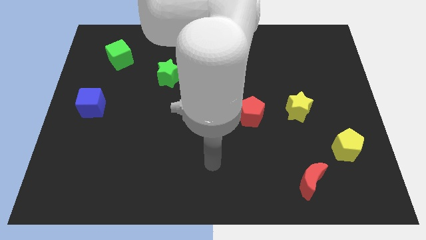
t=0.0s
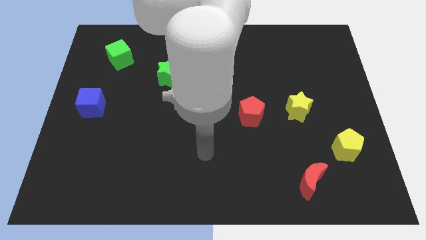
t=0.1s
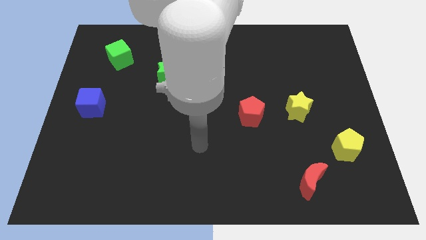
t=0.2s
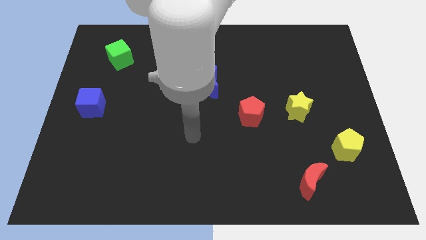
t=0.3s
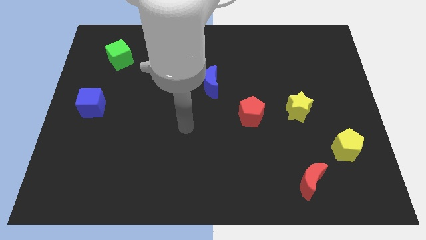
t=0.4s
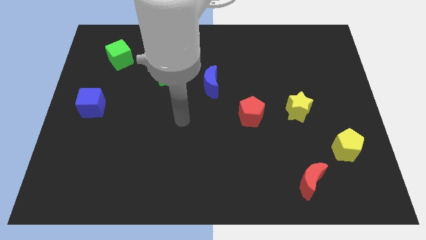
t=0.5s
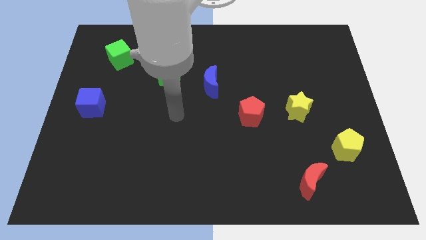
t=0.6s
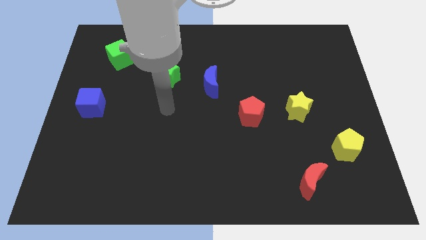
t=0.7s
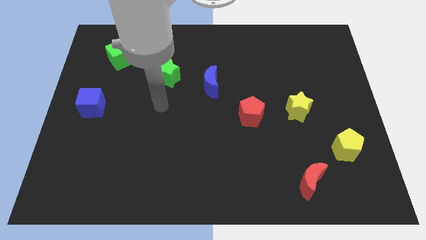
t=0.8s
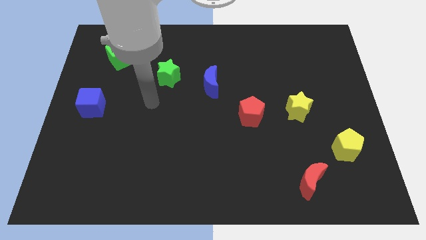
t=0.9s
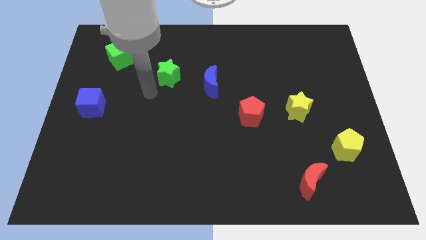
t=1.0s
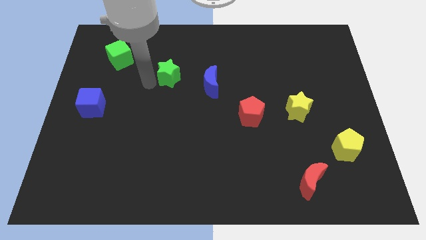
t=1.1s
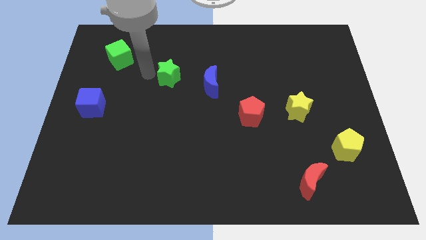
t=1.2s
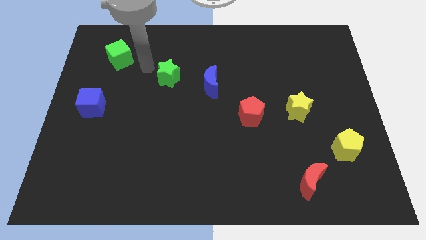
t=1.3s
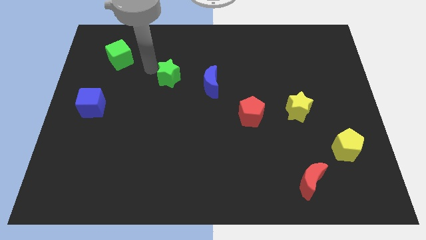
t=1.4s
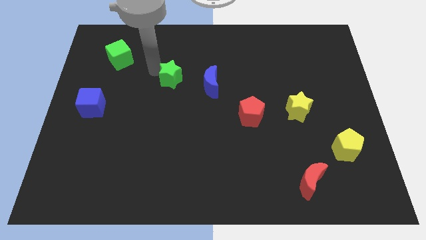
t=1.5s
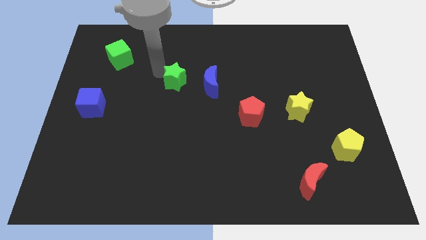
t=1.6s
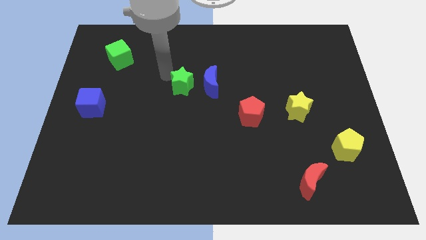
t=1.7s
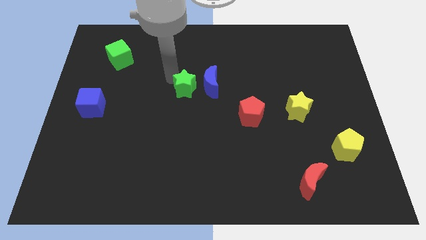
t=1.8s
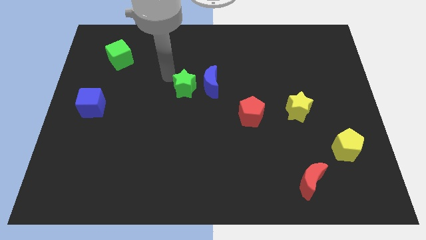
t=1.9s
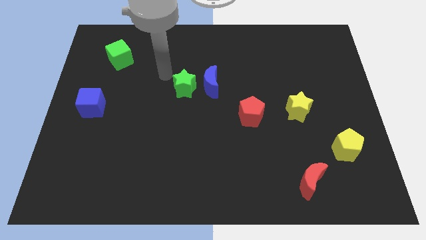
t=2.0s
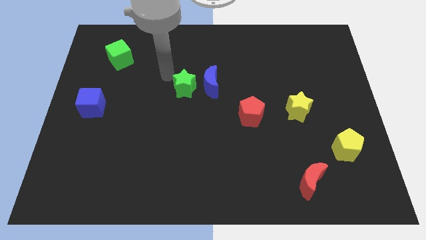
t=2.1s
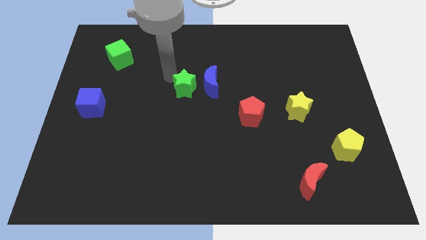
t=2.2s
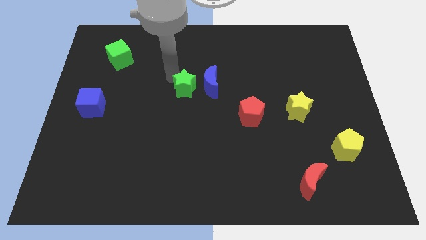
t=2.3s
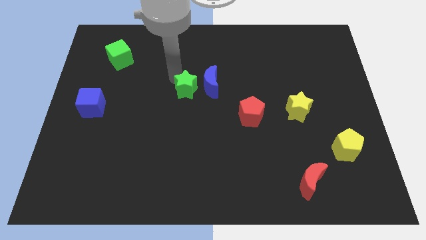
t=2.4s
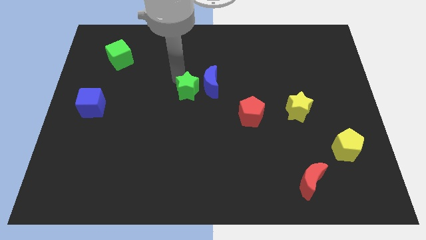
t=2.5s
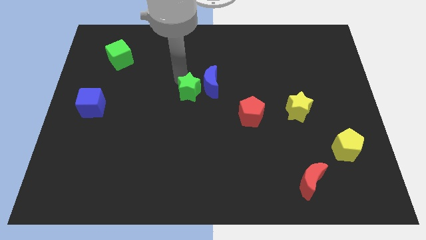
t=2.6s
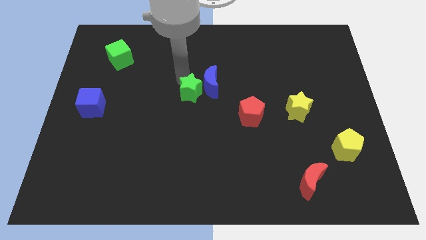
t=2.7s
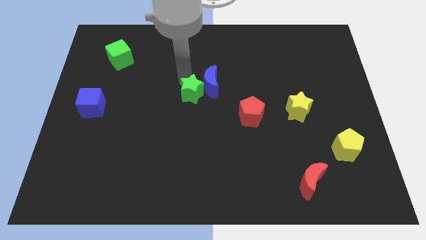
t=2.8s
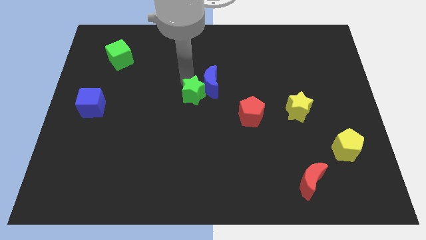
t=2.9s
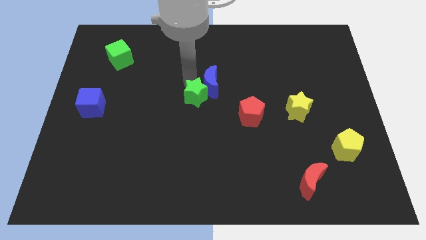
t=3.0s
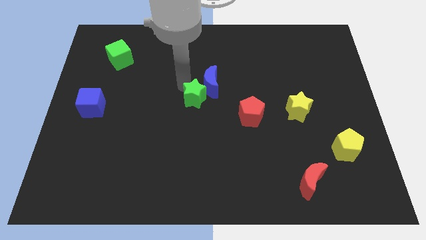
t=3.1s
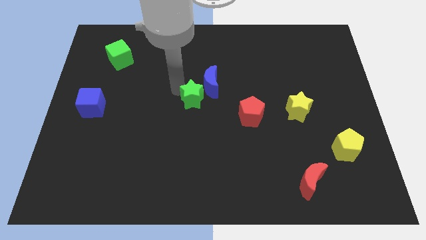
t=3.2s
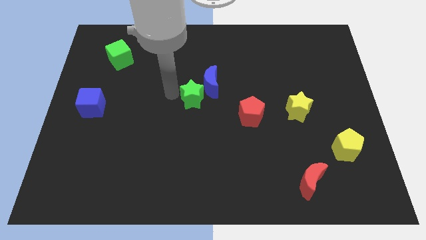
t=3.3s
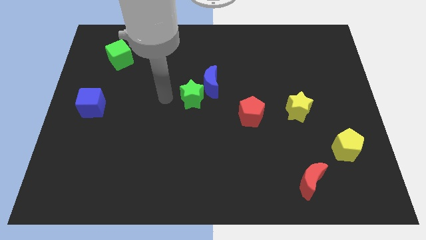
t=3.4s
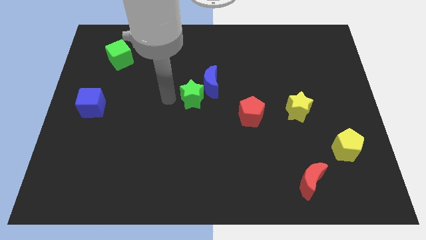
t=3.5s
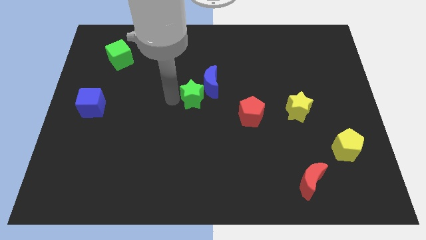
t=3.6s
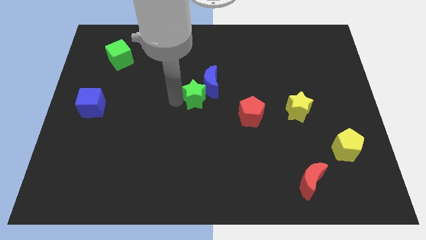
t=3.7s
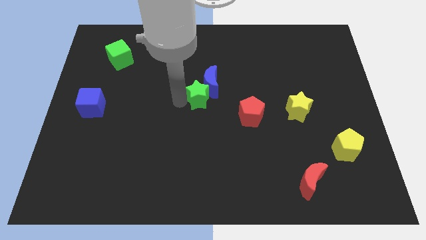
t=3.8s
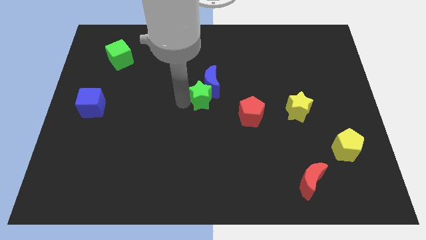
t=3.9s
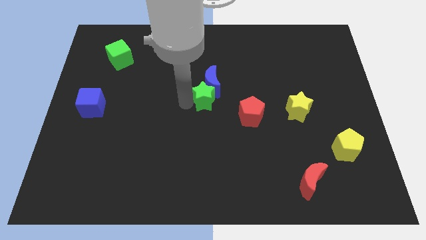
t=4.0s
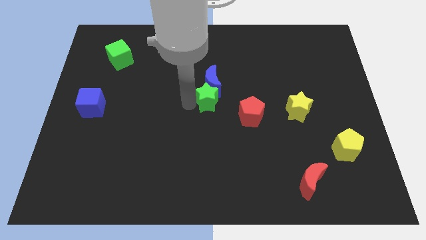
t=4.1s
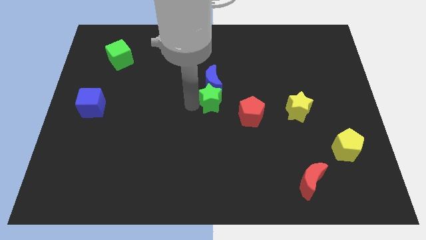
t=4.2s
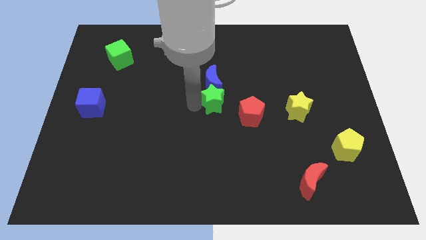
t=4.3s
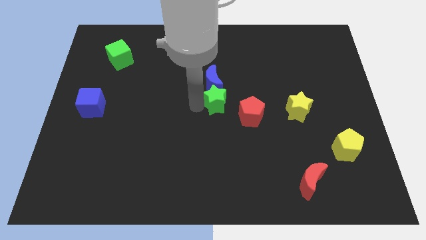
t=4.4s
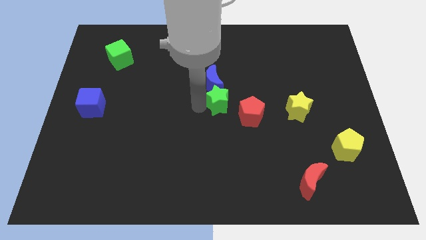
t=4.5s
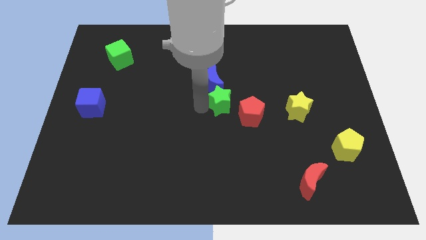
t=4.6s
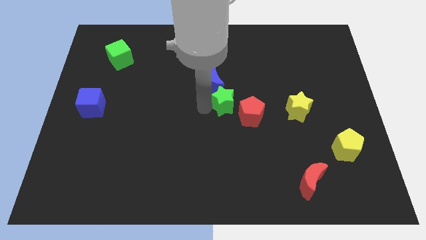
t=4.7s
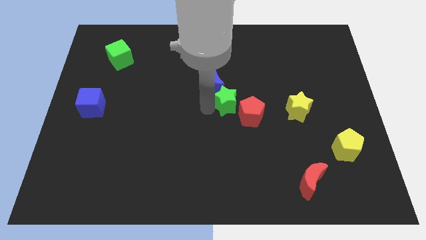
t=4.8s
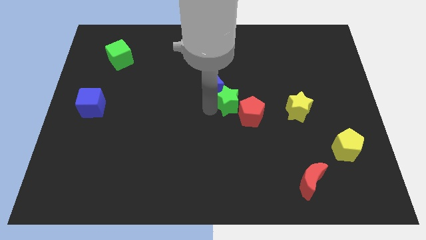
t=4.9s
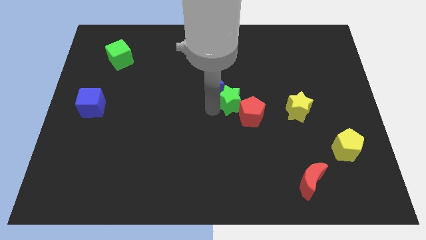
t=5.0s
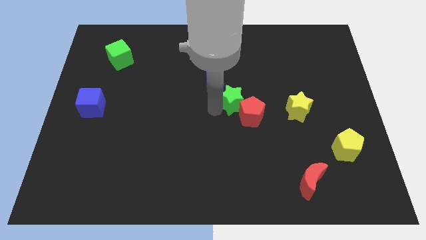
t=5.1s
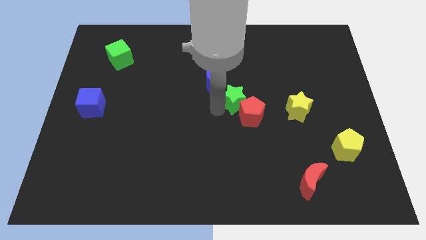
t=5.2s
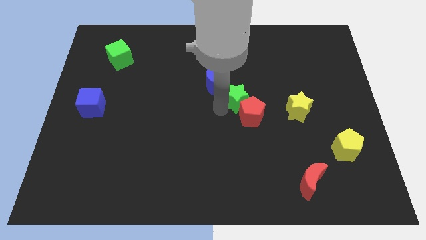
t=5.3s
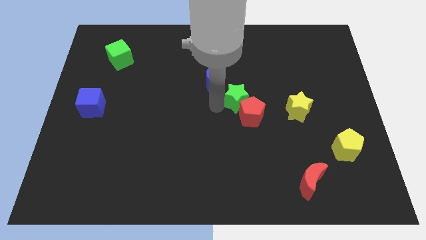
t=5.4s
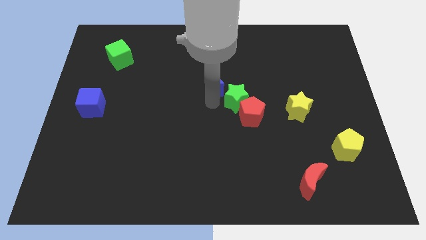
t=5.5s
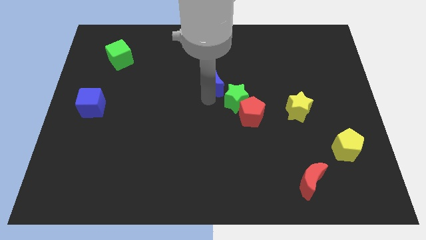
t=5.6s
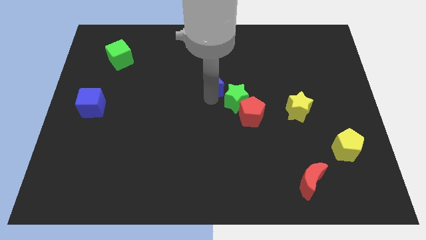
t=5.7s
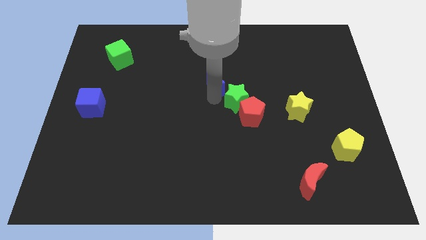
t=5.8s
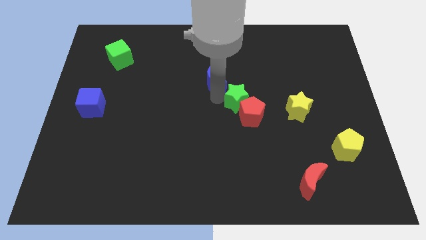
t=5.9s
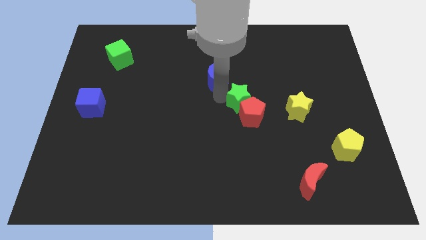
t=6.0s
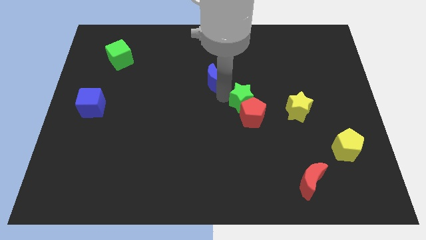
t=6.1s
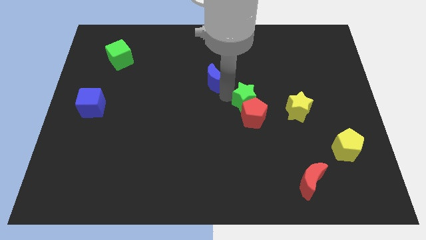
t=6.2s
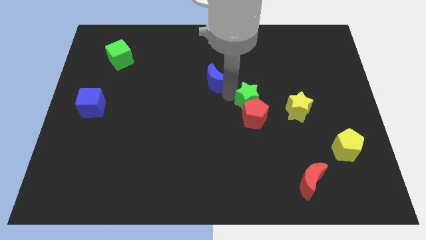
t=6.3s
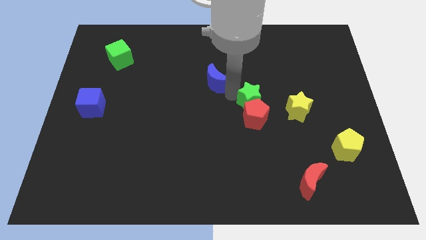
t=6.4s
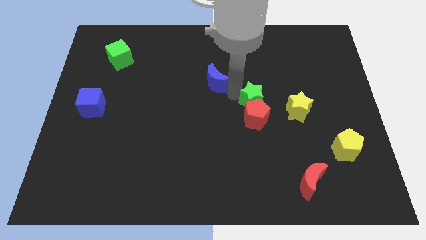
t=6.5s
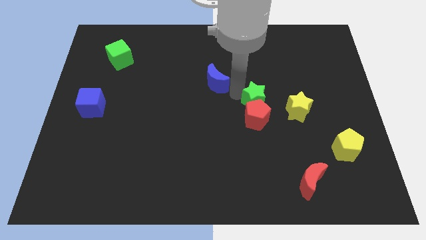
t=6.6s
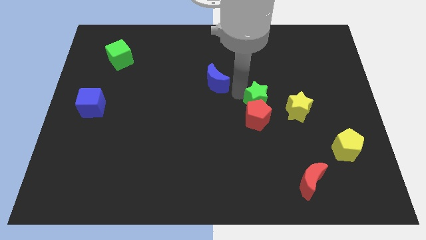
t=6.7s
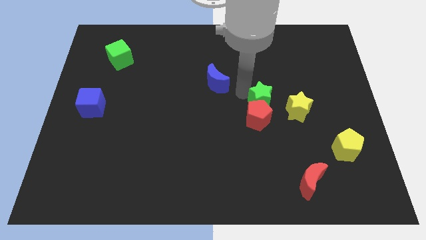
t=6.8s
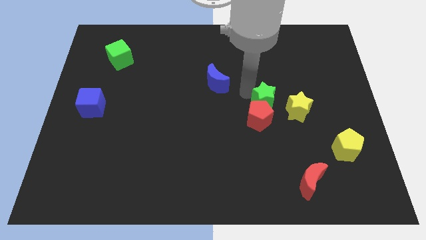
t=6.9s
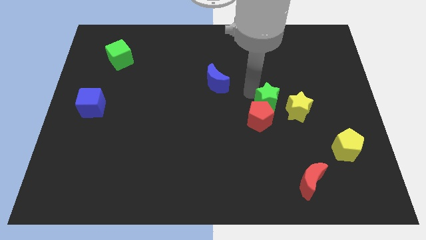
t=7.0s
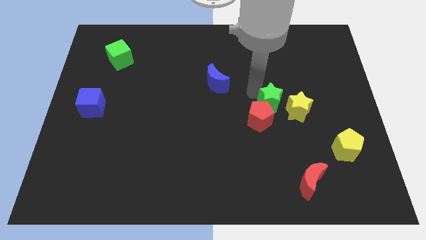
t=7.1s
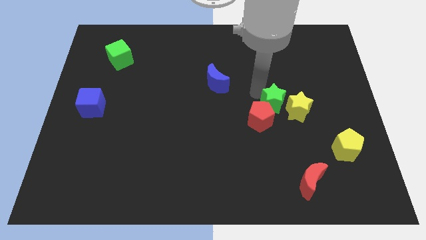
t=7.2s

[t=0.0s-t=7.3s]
put the green star next to the yellow star

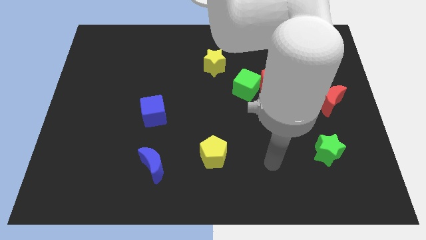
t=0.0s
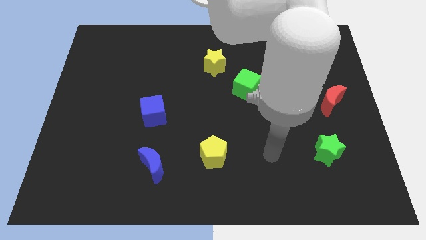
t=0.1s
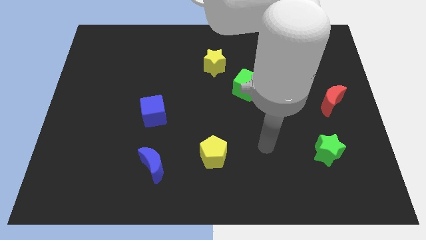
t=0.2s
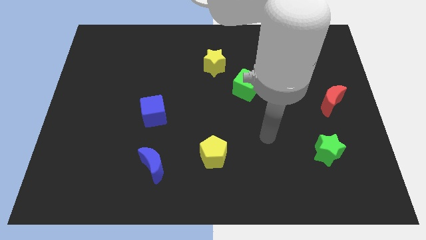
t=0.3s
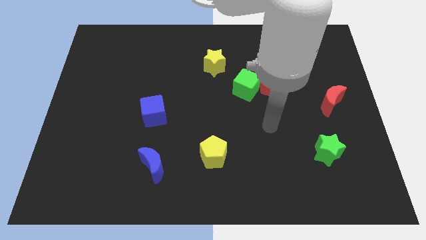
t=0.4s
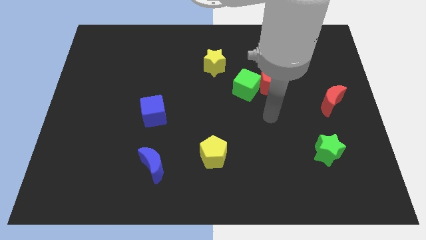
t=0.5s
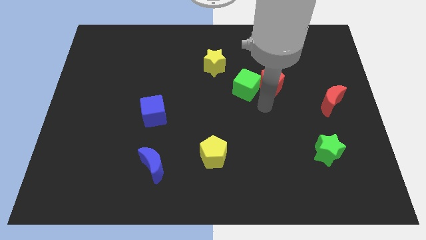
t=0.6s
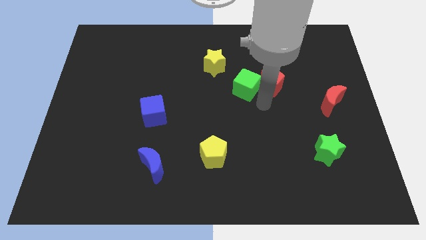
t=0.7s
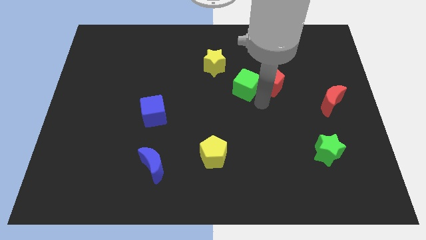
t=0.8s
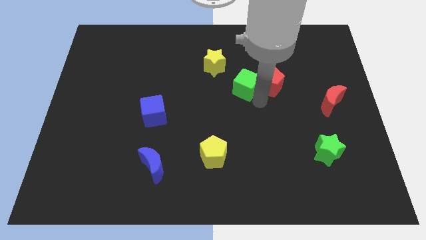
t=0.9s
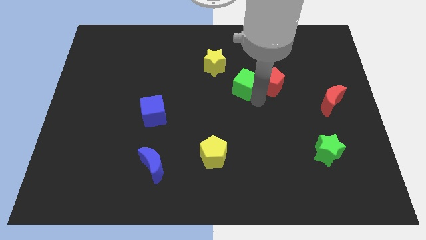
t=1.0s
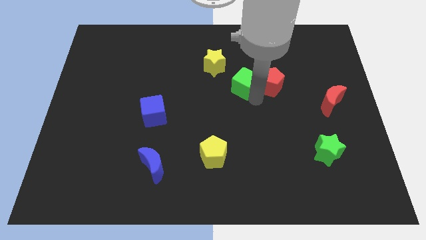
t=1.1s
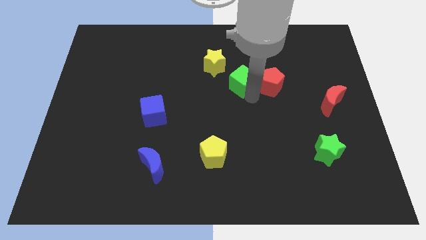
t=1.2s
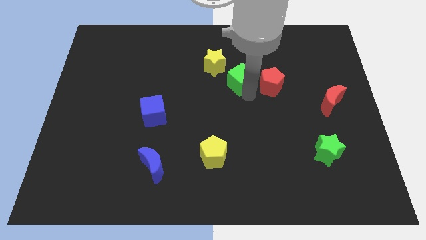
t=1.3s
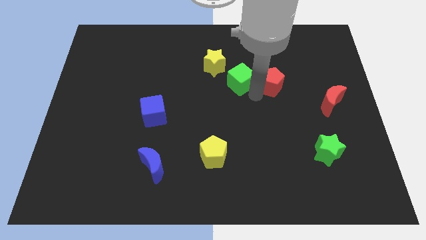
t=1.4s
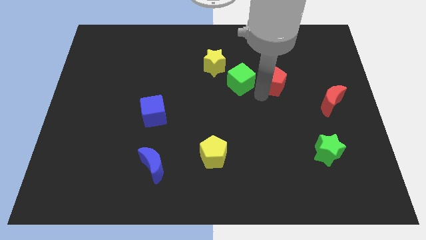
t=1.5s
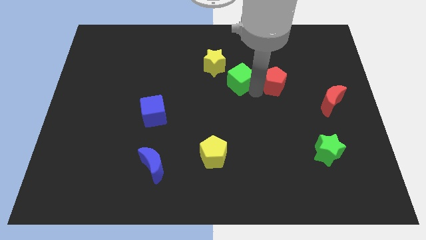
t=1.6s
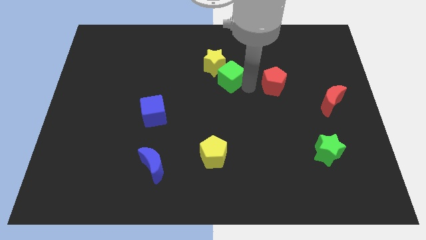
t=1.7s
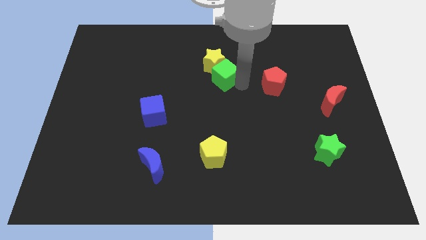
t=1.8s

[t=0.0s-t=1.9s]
slide the green cube to the yellow star
